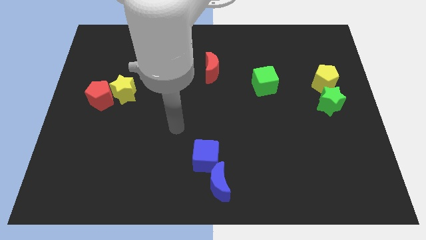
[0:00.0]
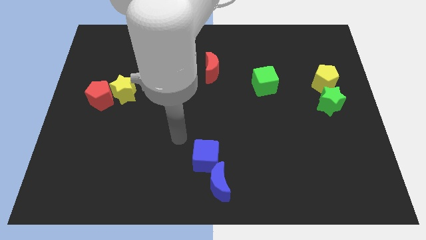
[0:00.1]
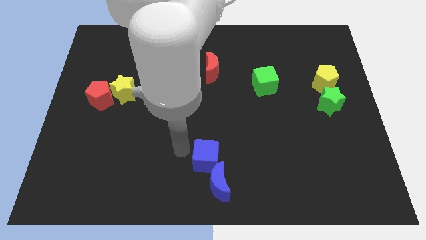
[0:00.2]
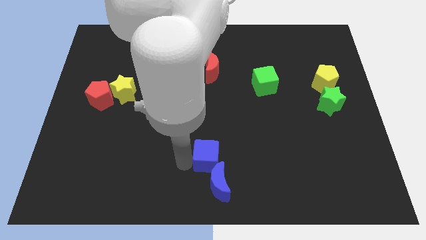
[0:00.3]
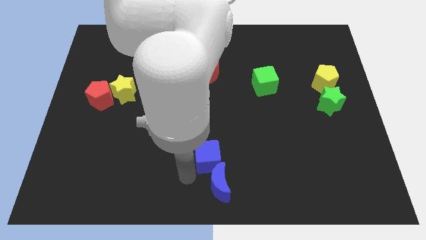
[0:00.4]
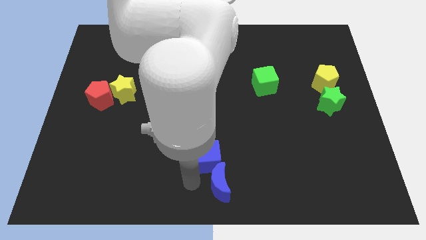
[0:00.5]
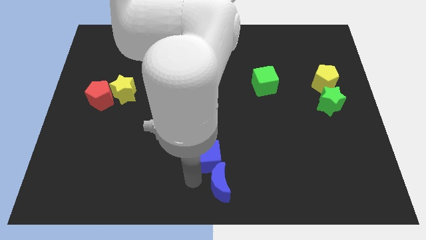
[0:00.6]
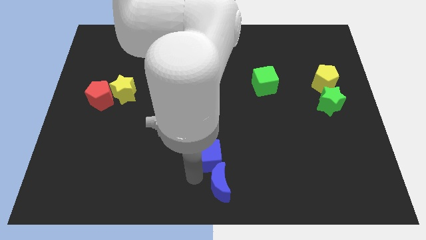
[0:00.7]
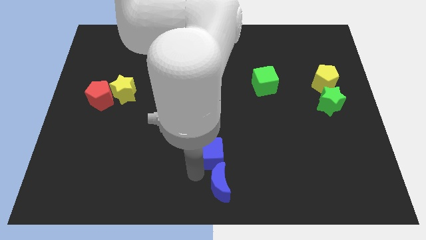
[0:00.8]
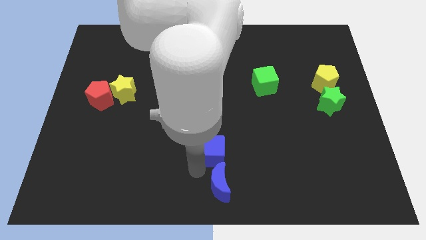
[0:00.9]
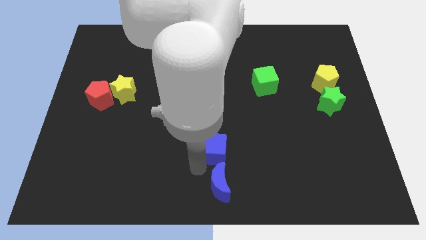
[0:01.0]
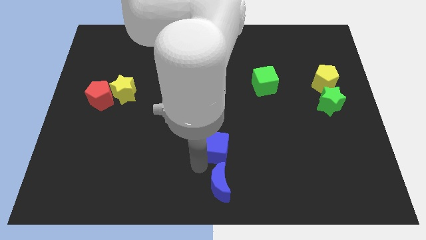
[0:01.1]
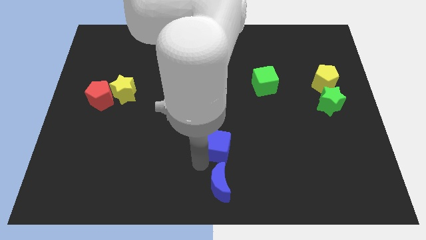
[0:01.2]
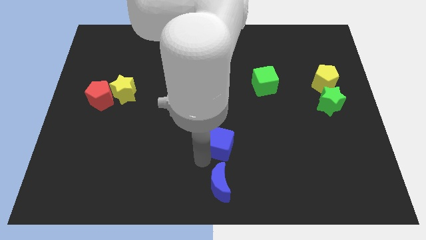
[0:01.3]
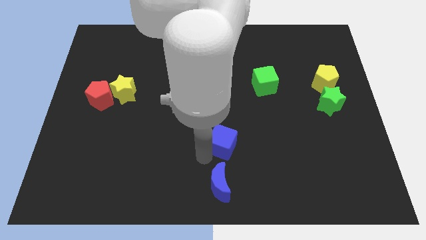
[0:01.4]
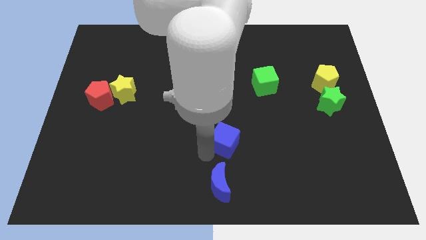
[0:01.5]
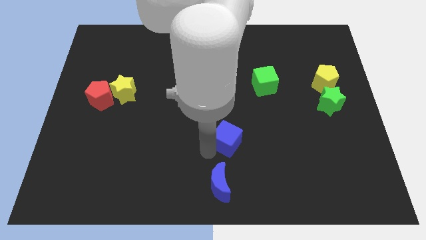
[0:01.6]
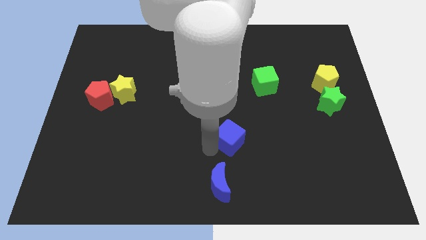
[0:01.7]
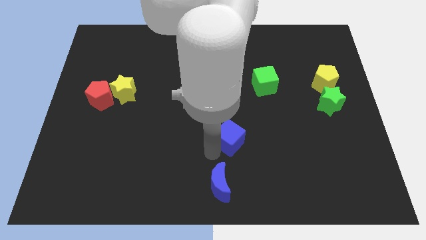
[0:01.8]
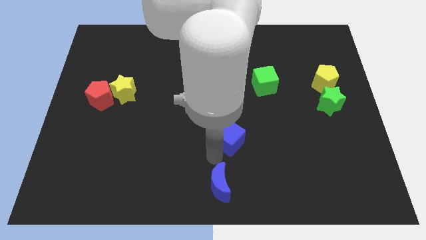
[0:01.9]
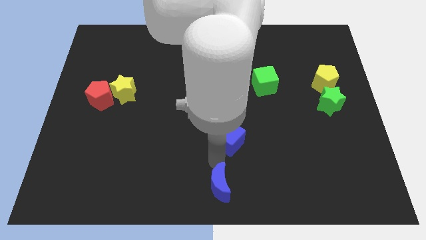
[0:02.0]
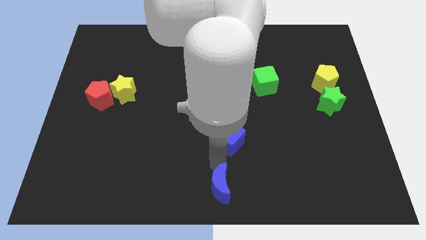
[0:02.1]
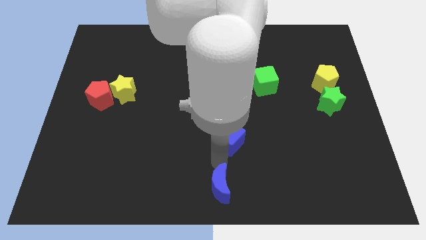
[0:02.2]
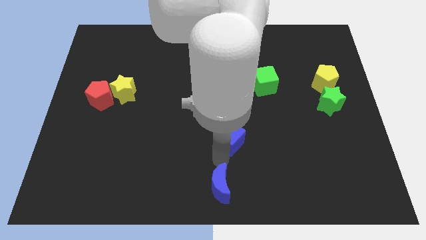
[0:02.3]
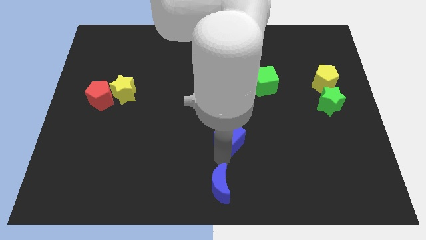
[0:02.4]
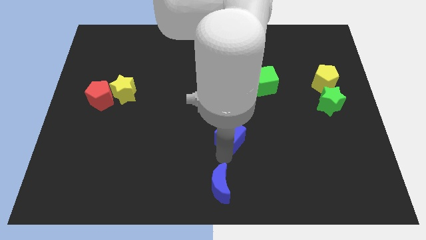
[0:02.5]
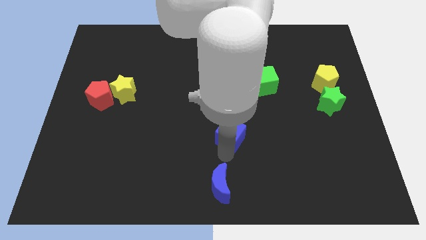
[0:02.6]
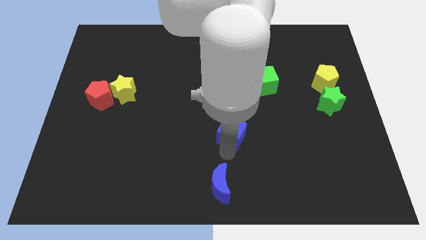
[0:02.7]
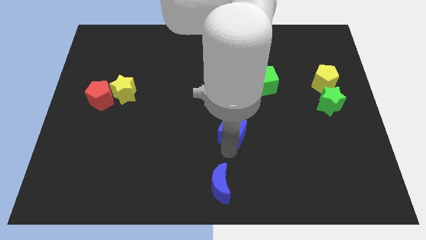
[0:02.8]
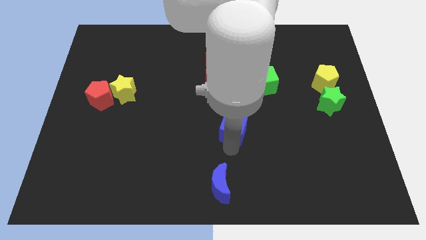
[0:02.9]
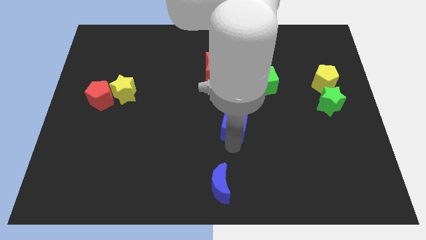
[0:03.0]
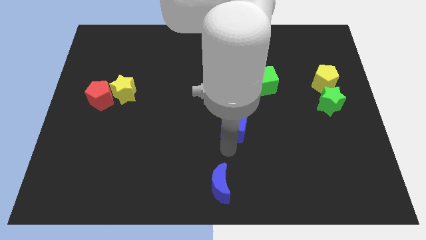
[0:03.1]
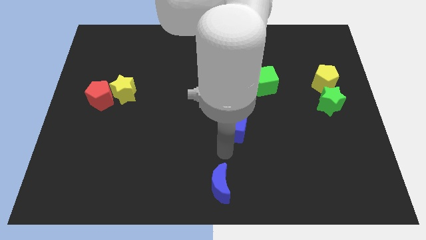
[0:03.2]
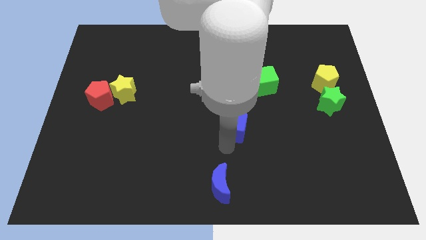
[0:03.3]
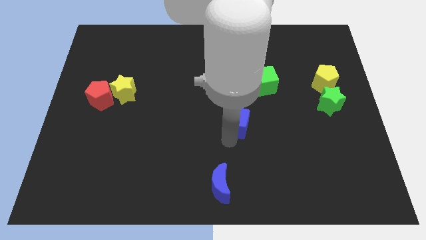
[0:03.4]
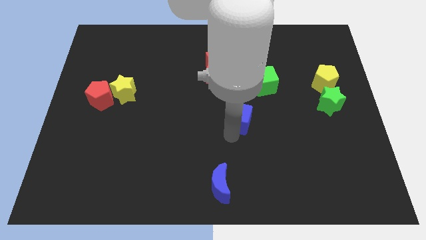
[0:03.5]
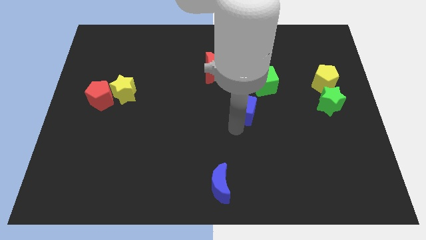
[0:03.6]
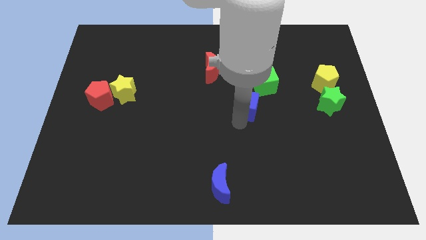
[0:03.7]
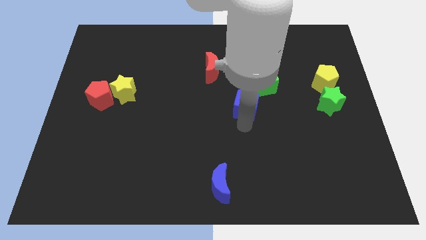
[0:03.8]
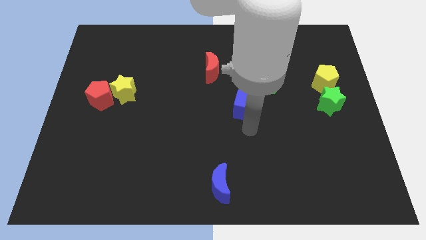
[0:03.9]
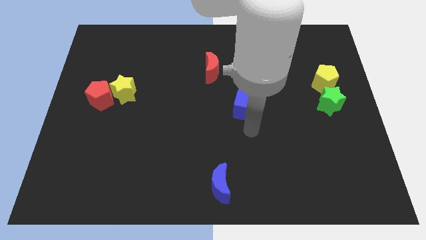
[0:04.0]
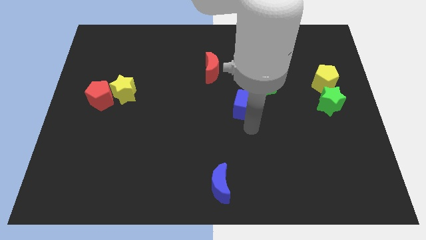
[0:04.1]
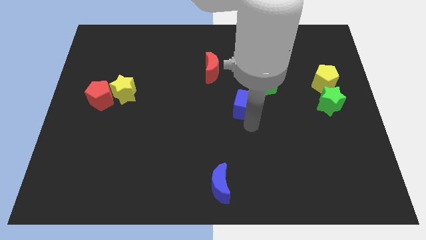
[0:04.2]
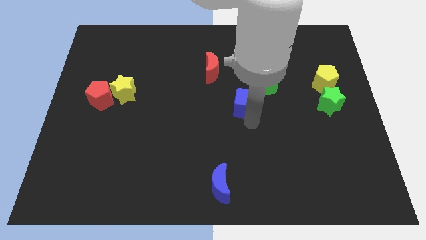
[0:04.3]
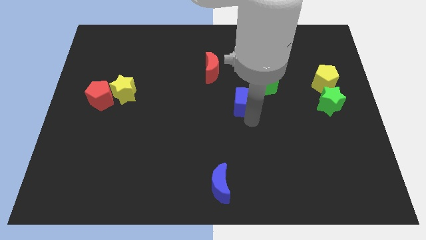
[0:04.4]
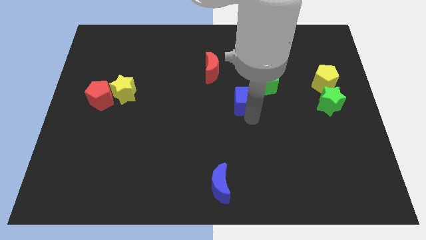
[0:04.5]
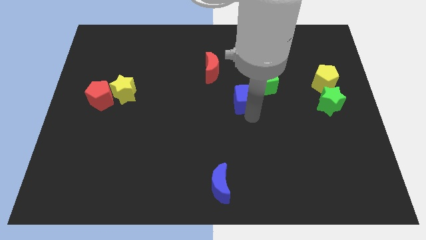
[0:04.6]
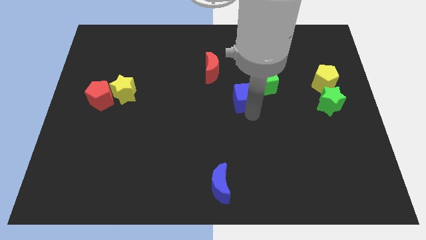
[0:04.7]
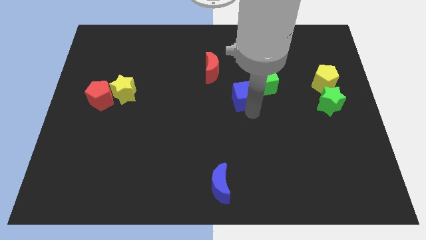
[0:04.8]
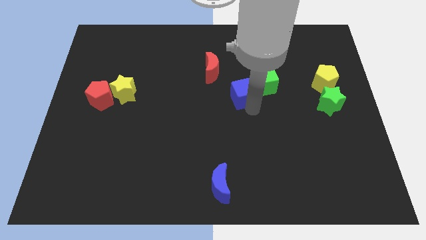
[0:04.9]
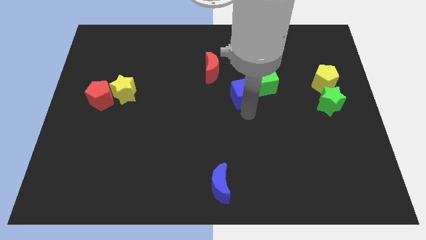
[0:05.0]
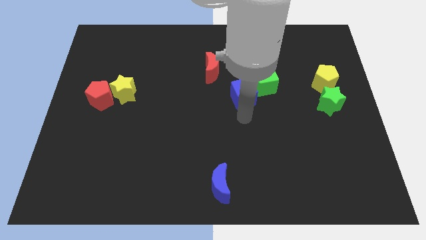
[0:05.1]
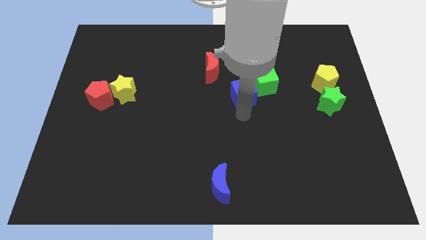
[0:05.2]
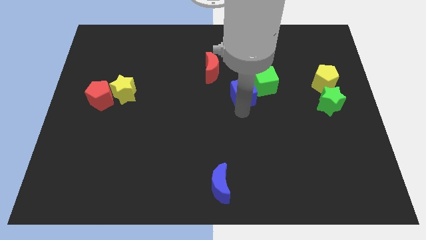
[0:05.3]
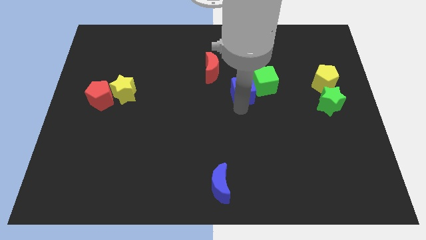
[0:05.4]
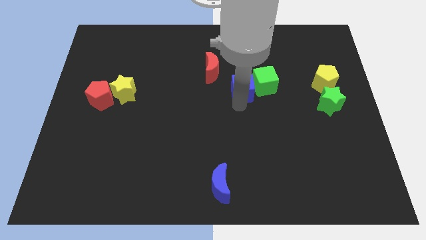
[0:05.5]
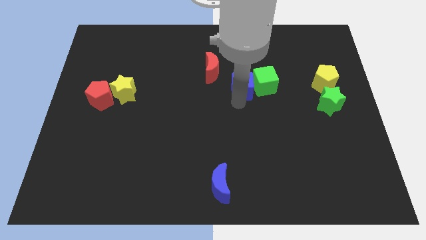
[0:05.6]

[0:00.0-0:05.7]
put the blue cube to the top left of the green cube

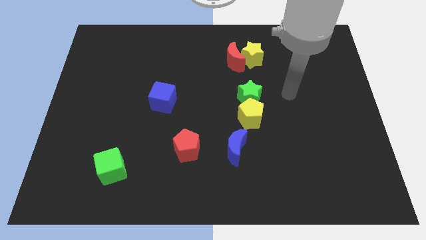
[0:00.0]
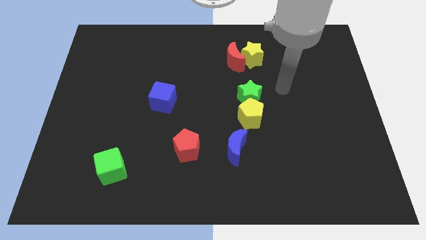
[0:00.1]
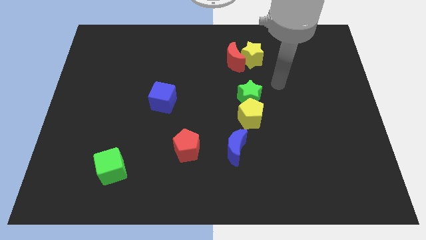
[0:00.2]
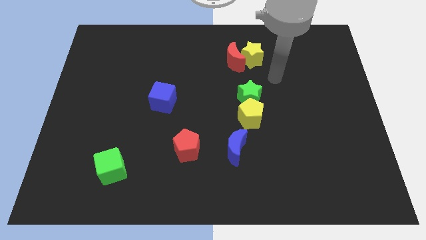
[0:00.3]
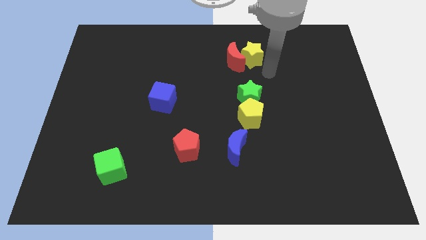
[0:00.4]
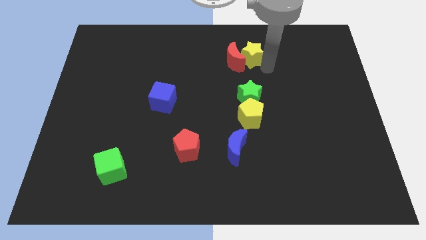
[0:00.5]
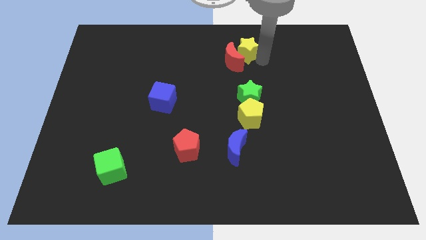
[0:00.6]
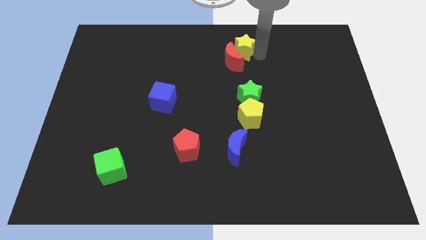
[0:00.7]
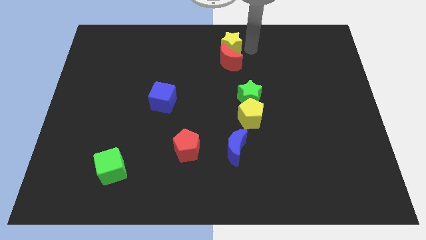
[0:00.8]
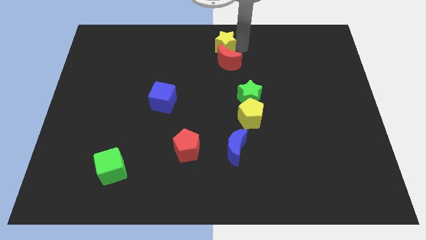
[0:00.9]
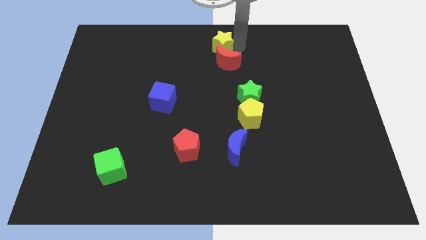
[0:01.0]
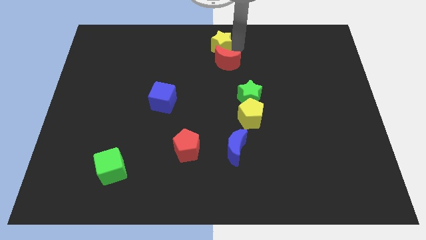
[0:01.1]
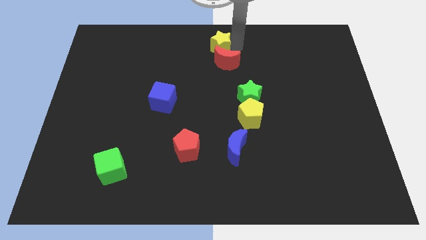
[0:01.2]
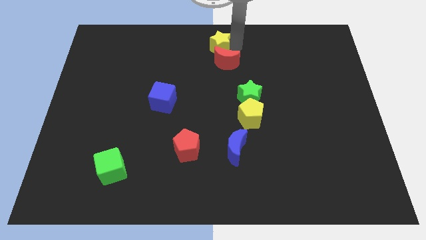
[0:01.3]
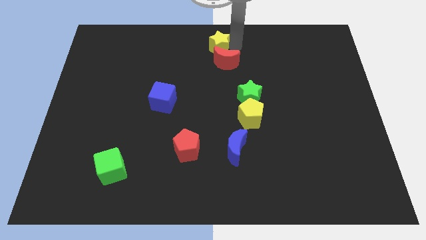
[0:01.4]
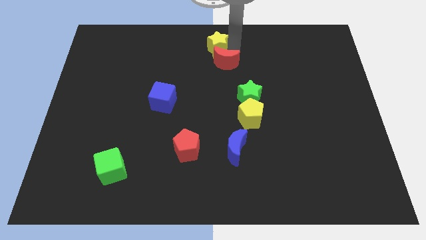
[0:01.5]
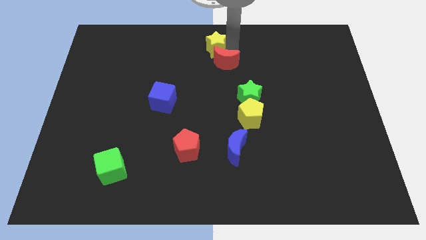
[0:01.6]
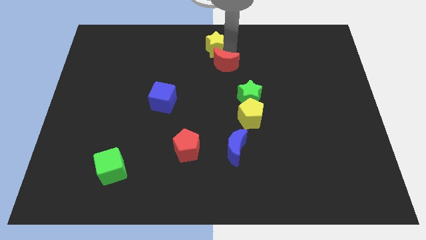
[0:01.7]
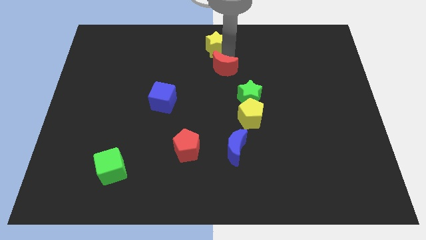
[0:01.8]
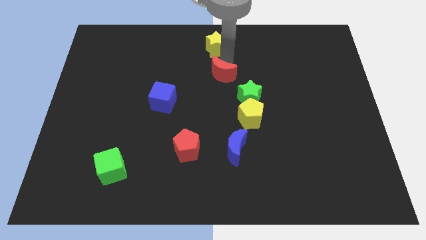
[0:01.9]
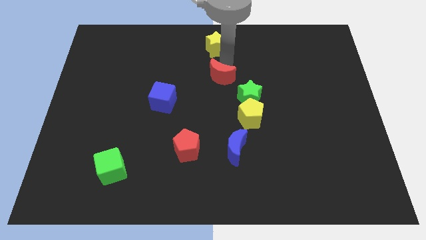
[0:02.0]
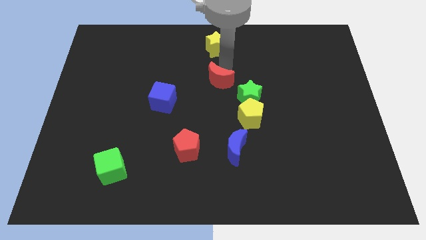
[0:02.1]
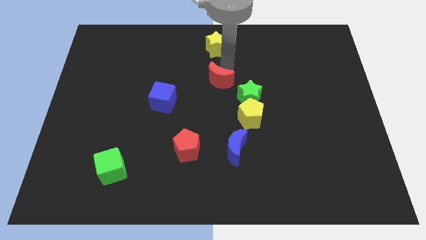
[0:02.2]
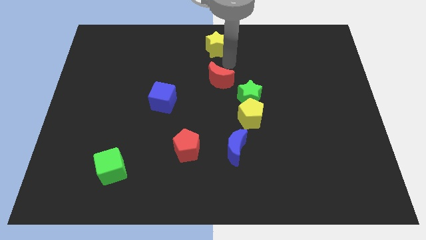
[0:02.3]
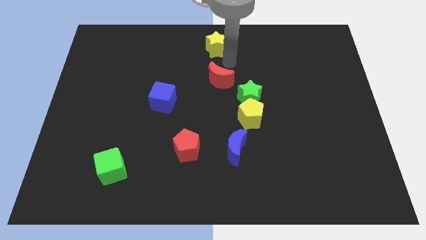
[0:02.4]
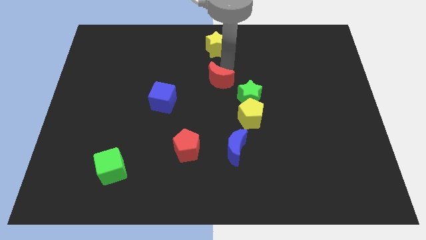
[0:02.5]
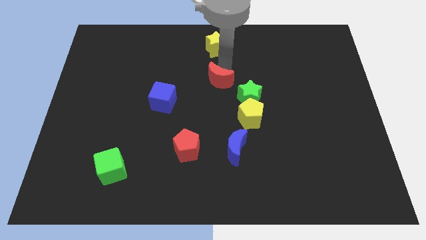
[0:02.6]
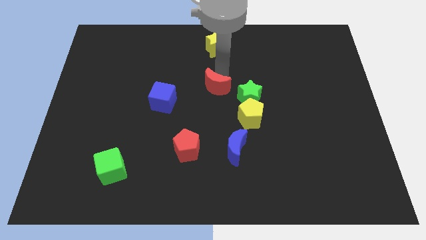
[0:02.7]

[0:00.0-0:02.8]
move the red moon to the right of the blue cube
